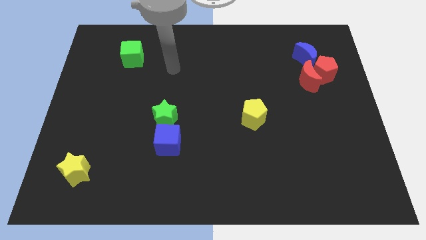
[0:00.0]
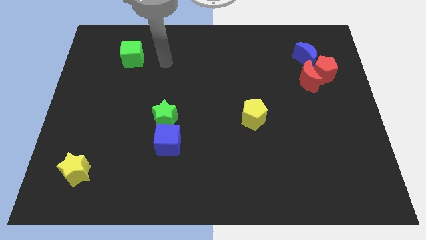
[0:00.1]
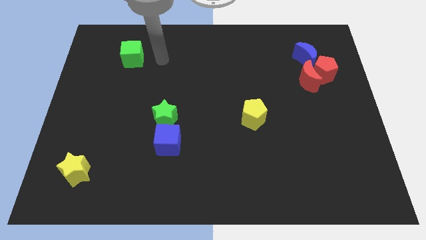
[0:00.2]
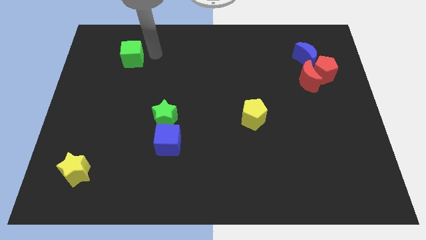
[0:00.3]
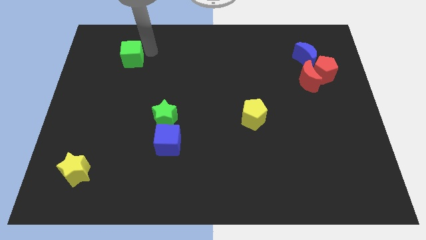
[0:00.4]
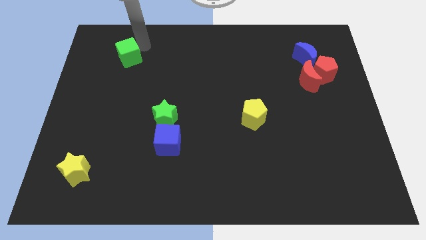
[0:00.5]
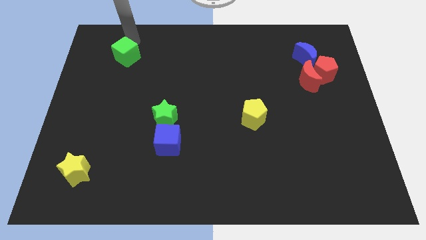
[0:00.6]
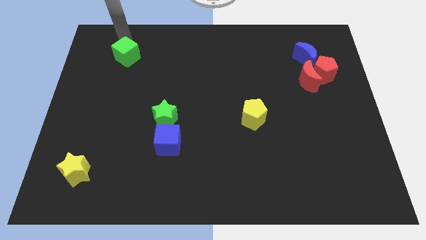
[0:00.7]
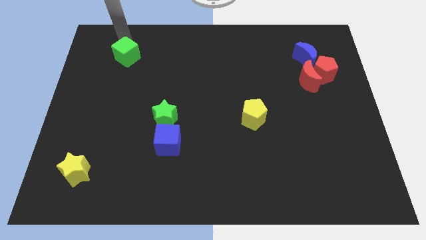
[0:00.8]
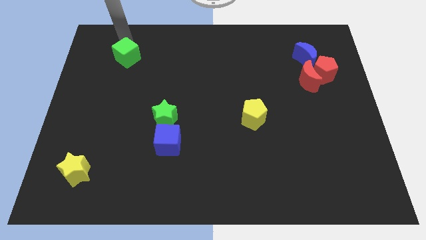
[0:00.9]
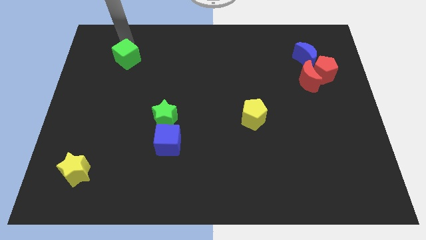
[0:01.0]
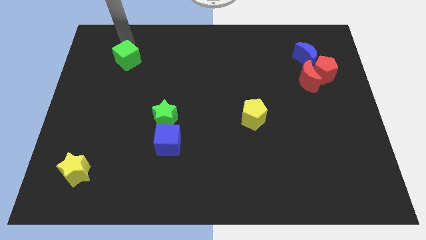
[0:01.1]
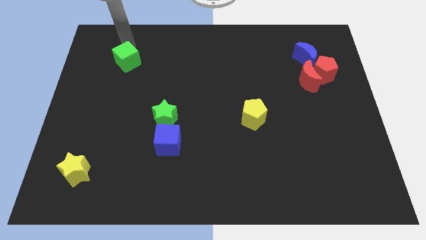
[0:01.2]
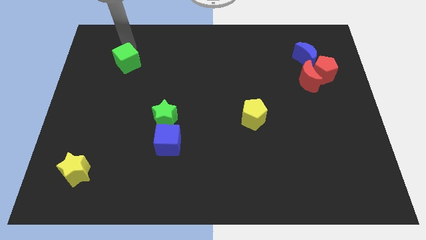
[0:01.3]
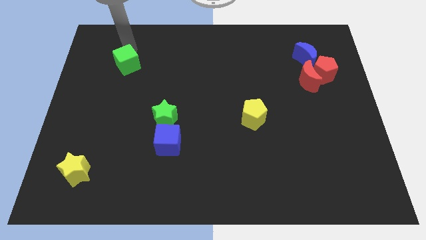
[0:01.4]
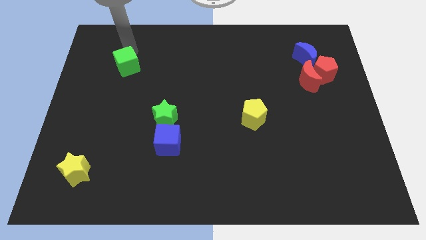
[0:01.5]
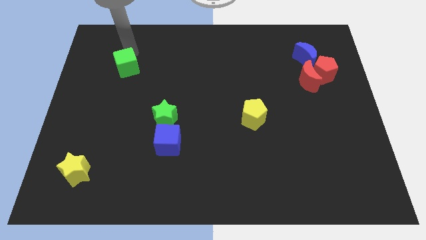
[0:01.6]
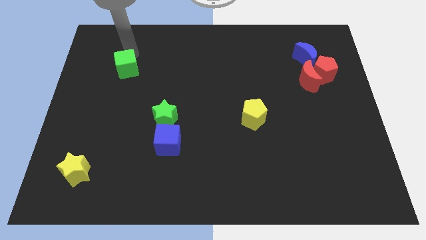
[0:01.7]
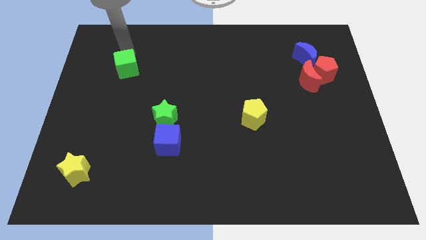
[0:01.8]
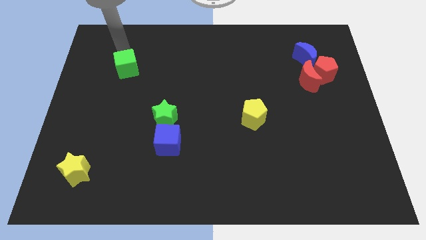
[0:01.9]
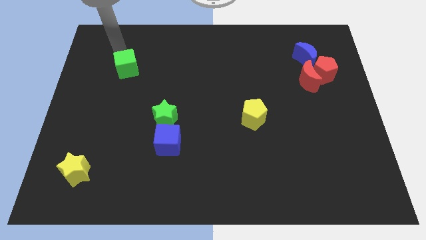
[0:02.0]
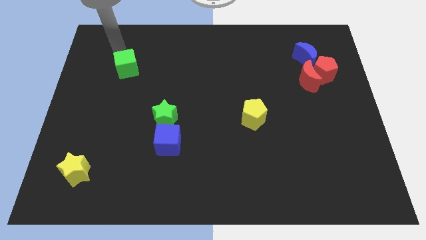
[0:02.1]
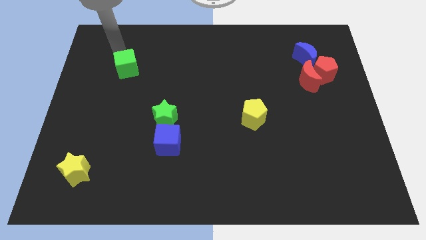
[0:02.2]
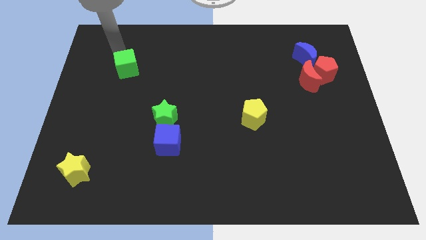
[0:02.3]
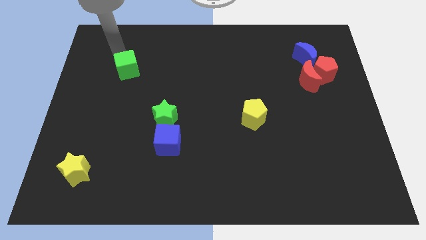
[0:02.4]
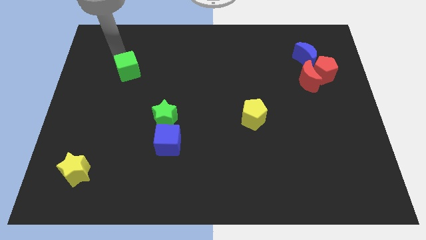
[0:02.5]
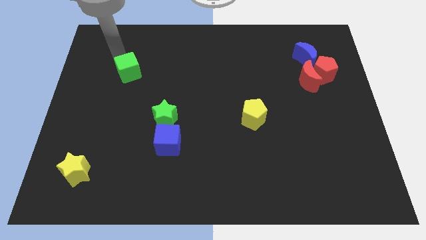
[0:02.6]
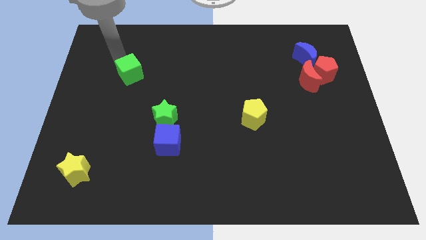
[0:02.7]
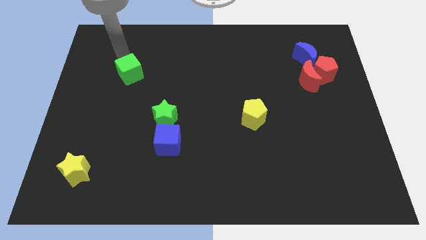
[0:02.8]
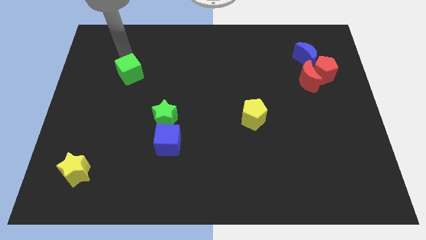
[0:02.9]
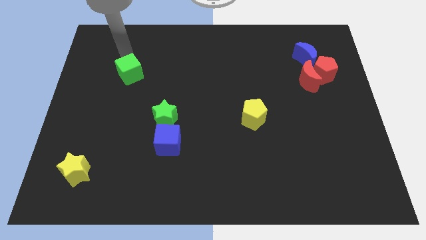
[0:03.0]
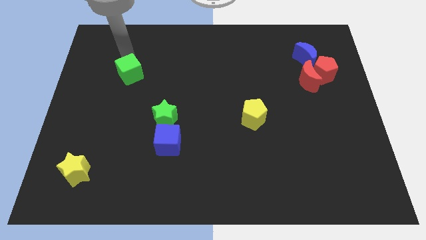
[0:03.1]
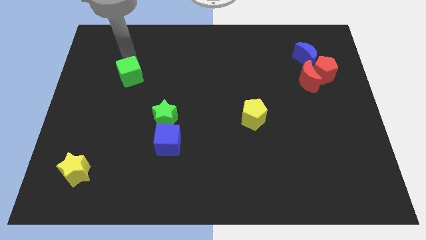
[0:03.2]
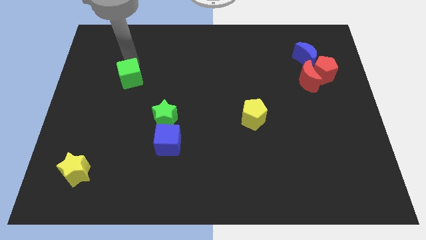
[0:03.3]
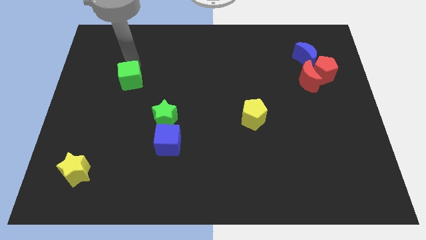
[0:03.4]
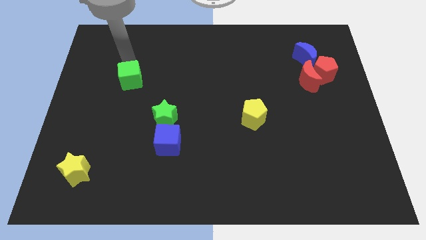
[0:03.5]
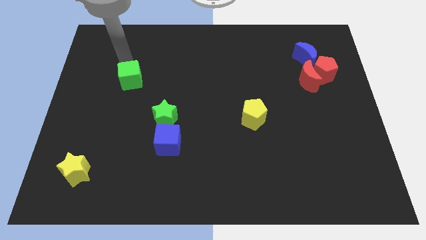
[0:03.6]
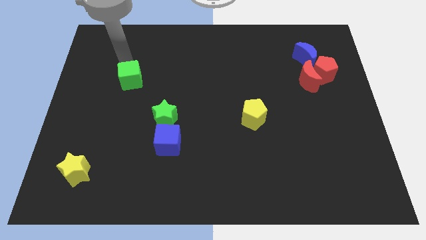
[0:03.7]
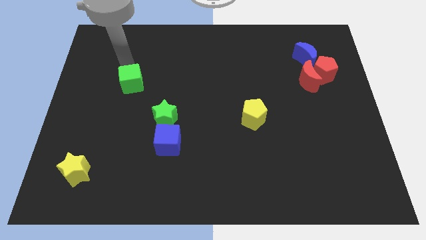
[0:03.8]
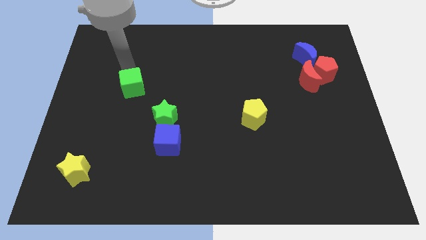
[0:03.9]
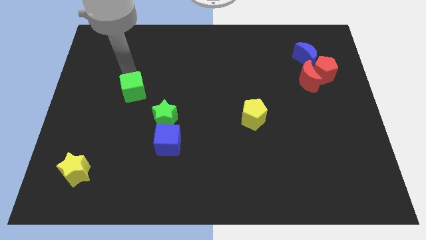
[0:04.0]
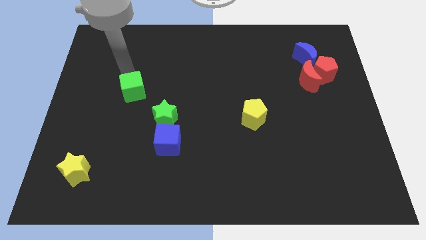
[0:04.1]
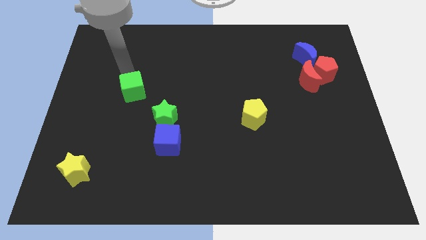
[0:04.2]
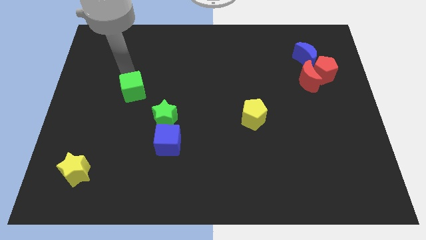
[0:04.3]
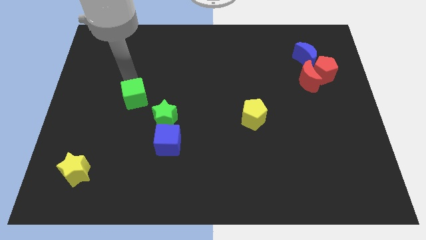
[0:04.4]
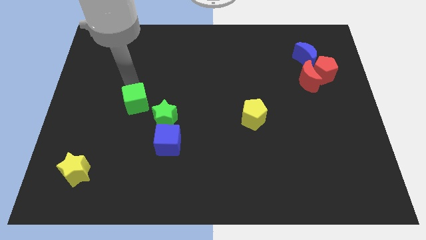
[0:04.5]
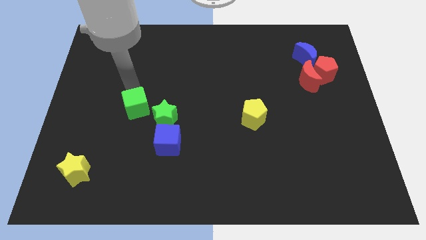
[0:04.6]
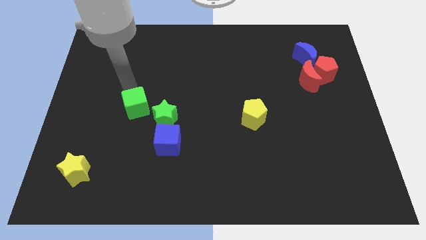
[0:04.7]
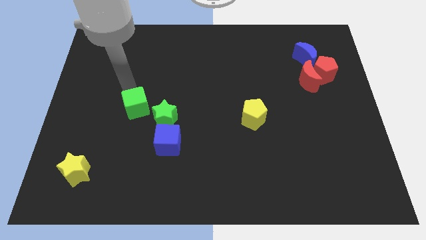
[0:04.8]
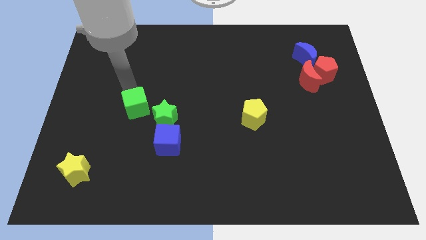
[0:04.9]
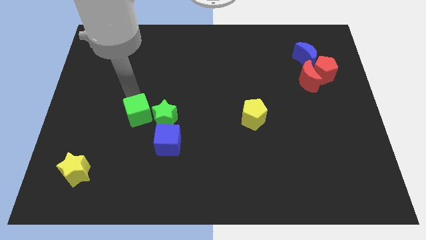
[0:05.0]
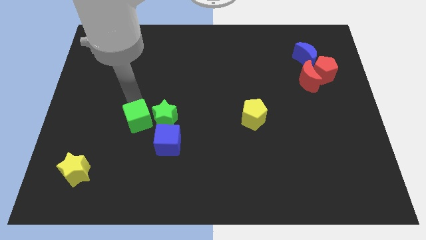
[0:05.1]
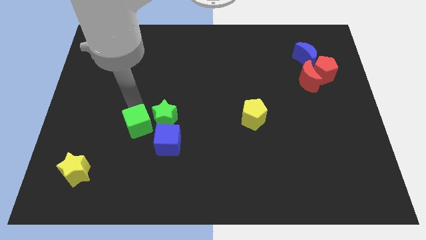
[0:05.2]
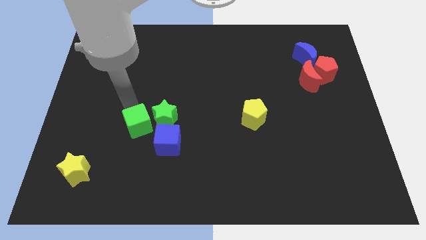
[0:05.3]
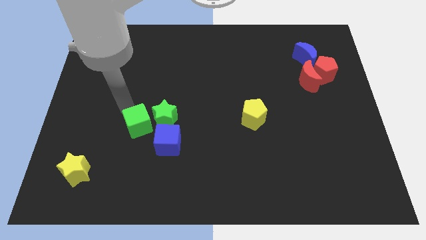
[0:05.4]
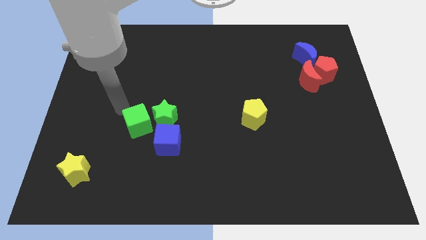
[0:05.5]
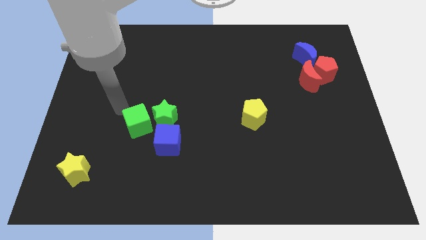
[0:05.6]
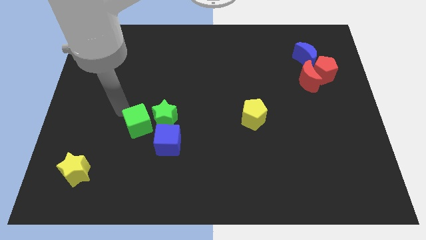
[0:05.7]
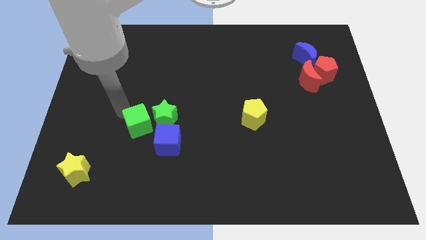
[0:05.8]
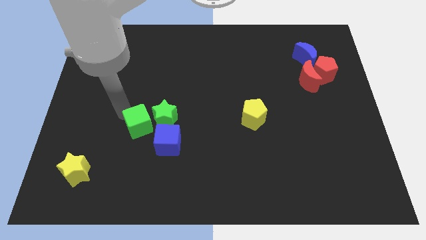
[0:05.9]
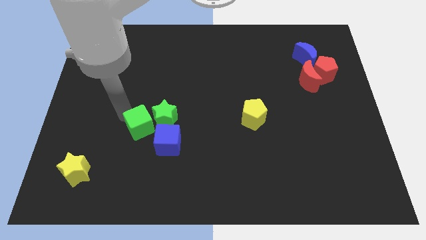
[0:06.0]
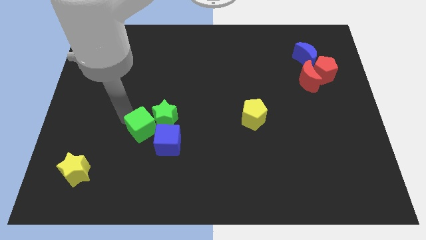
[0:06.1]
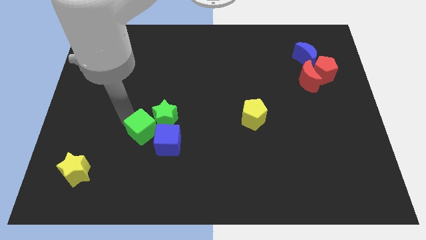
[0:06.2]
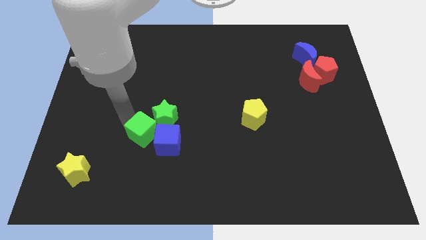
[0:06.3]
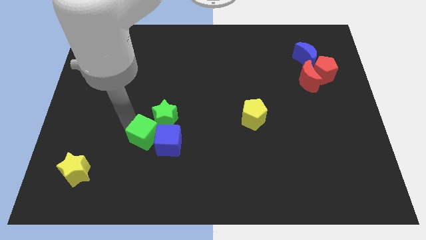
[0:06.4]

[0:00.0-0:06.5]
move the green cube towards the blue cube

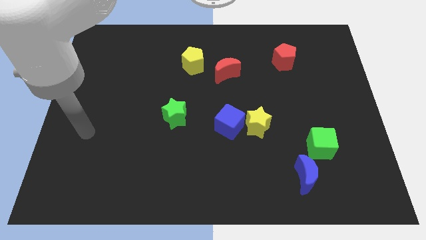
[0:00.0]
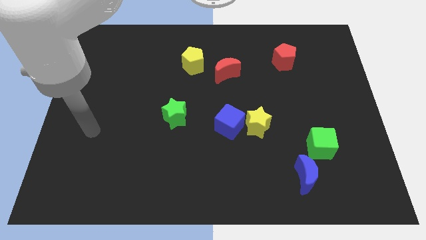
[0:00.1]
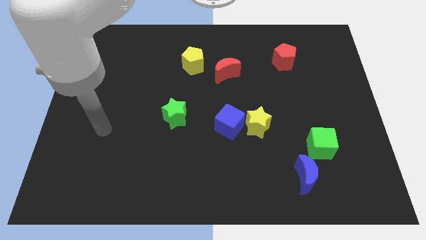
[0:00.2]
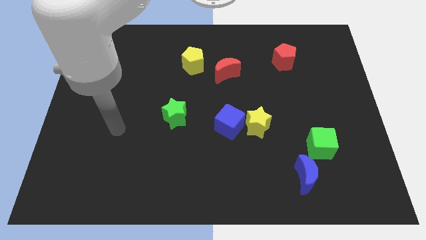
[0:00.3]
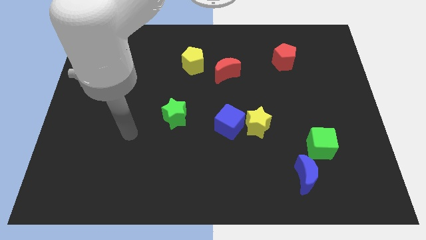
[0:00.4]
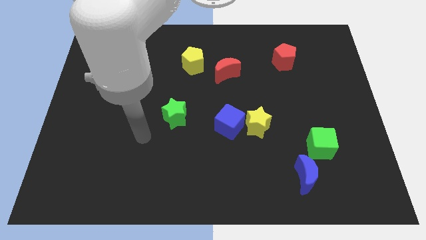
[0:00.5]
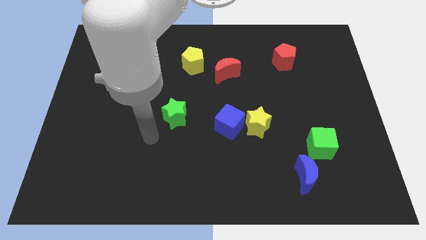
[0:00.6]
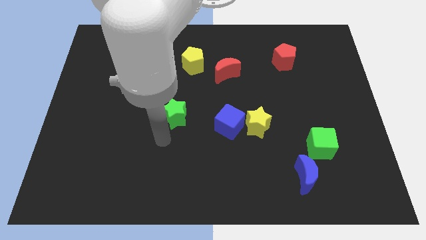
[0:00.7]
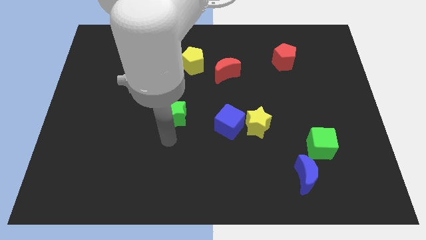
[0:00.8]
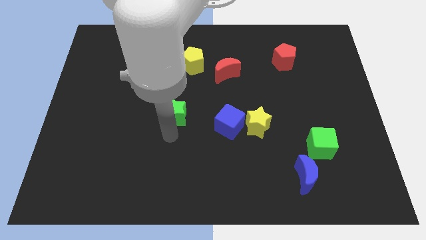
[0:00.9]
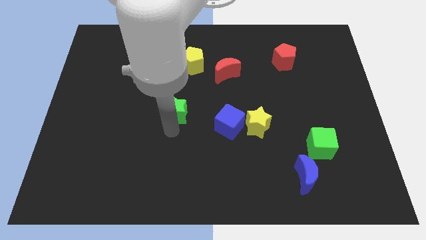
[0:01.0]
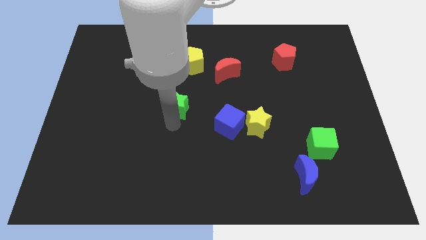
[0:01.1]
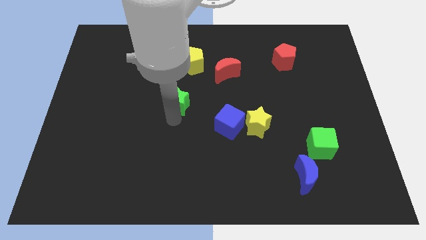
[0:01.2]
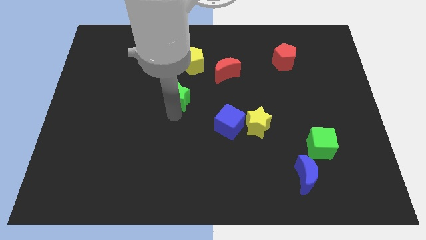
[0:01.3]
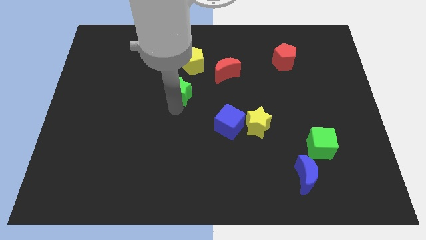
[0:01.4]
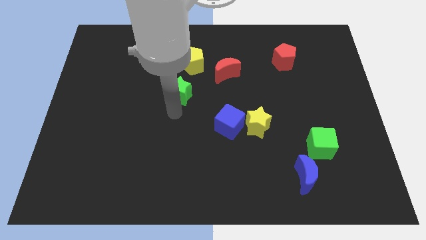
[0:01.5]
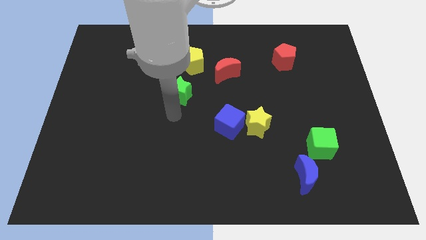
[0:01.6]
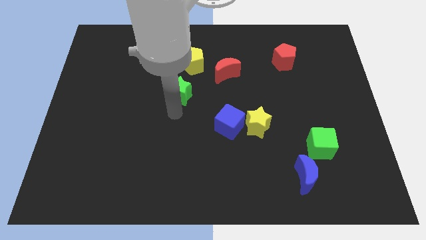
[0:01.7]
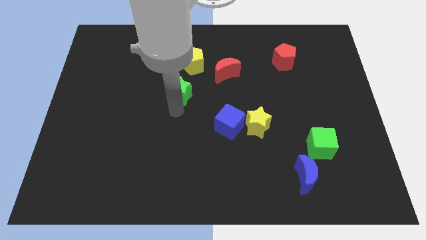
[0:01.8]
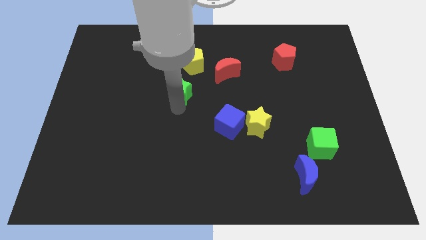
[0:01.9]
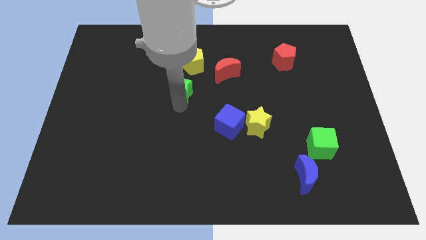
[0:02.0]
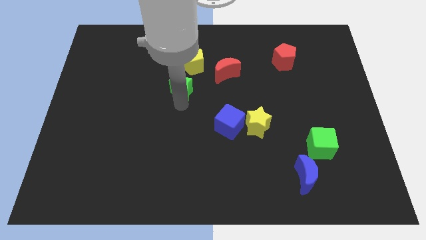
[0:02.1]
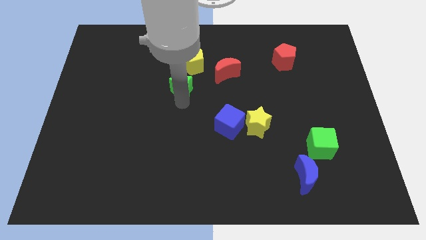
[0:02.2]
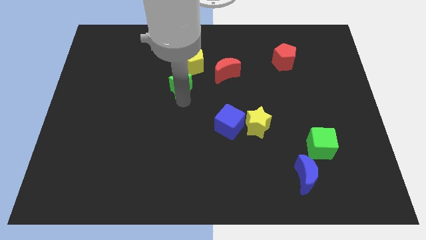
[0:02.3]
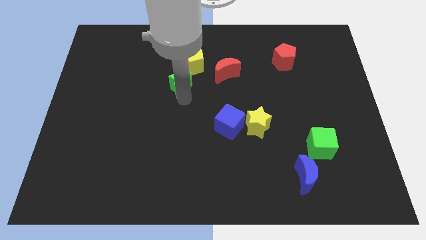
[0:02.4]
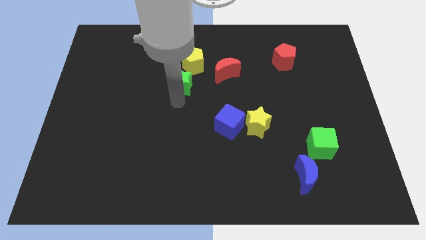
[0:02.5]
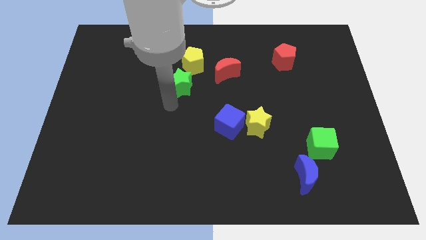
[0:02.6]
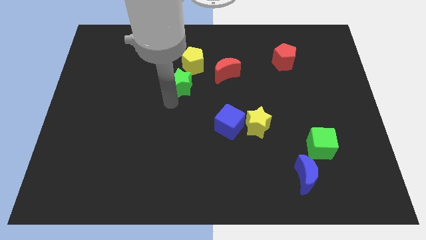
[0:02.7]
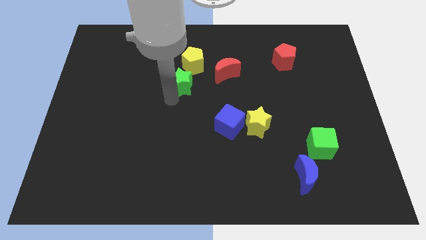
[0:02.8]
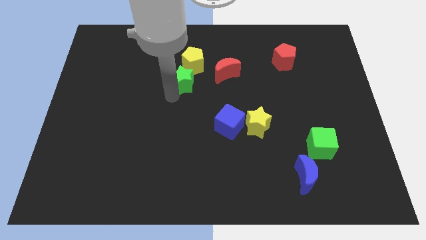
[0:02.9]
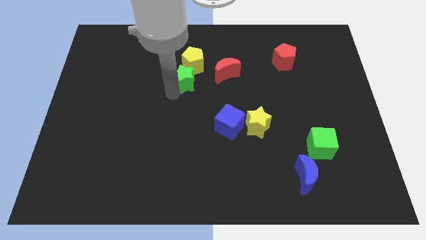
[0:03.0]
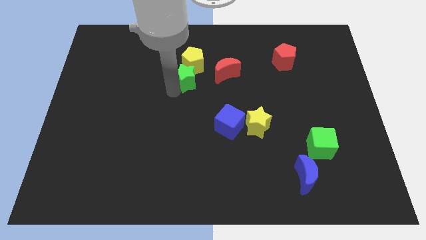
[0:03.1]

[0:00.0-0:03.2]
move the green star to the yellow pentagon
